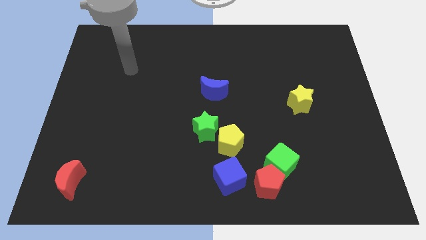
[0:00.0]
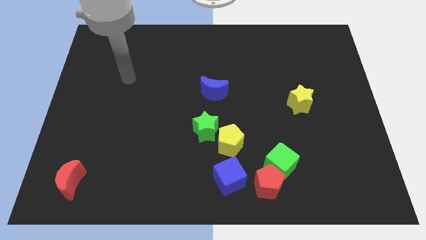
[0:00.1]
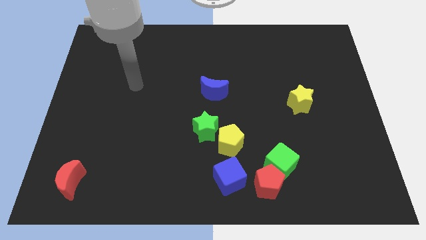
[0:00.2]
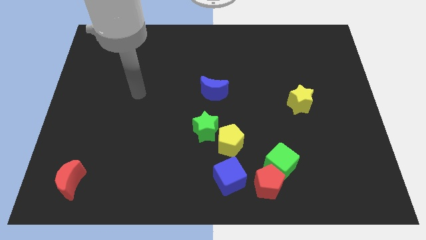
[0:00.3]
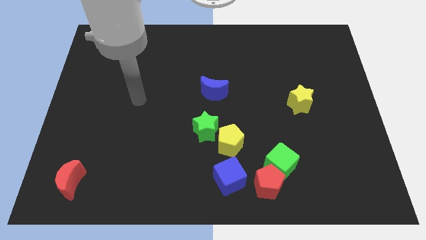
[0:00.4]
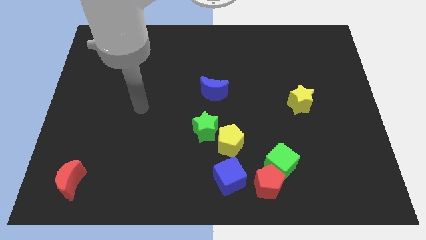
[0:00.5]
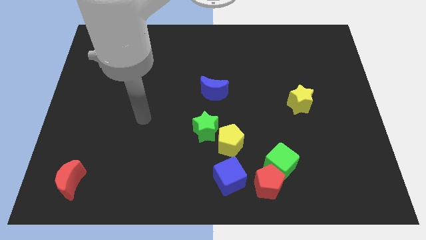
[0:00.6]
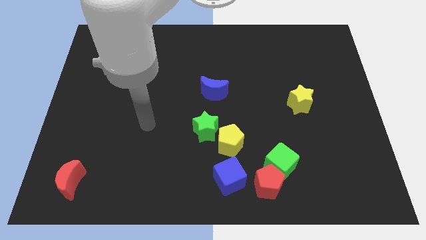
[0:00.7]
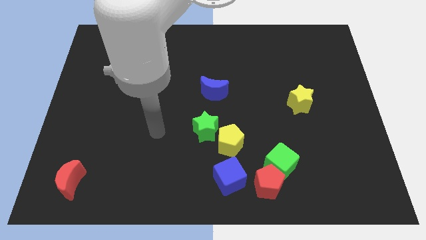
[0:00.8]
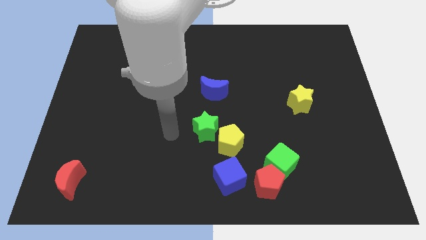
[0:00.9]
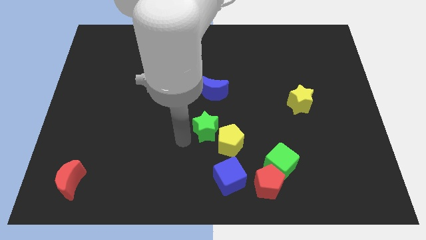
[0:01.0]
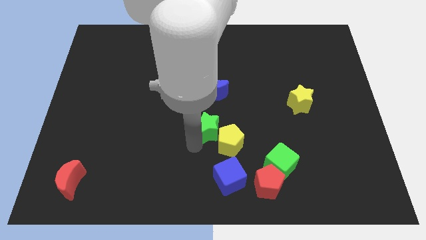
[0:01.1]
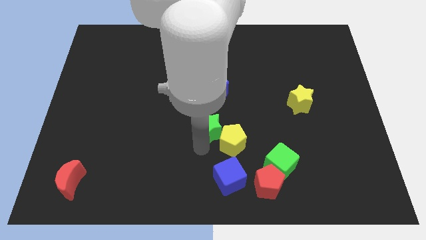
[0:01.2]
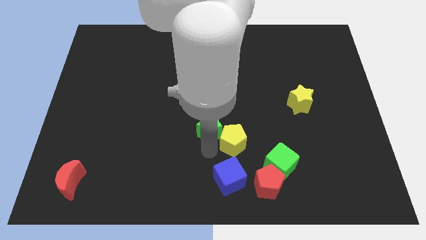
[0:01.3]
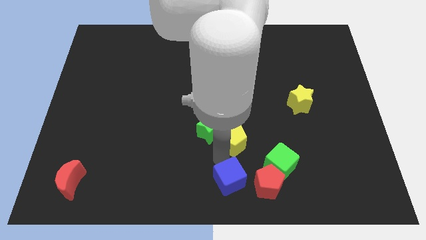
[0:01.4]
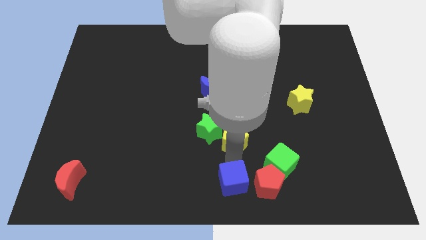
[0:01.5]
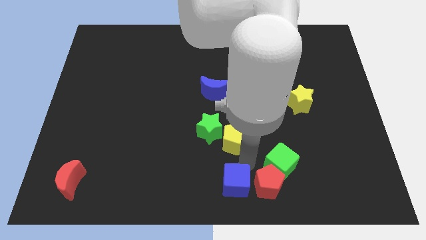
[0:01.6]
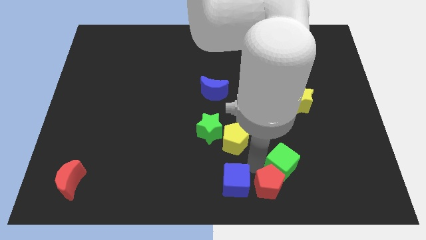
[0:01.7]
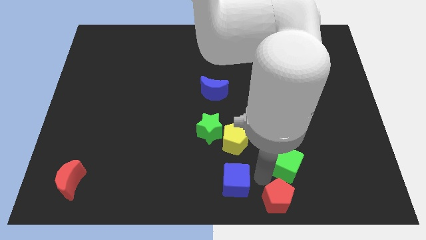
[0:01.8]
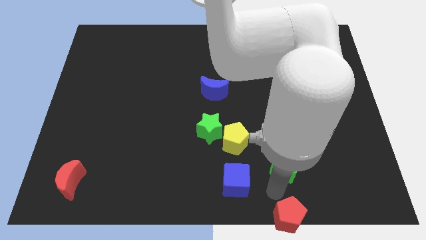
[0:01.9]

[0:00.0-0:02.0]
move the green cube away from the red pentagon

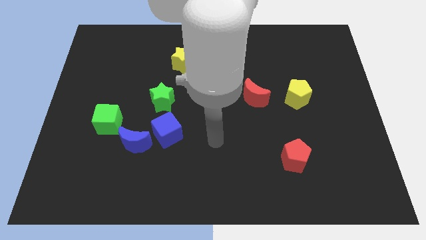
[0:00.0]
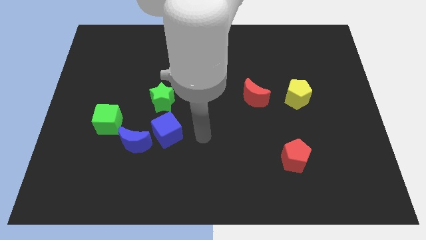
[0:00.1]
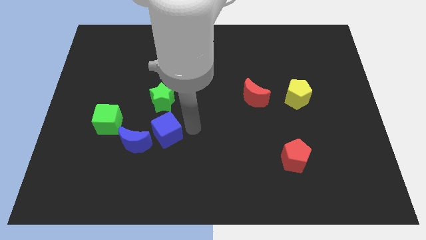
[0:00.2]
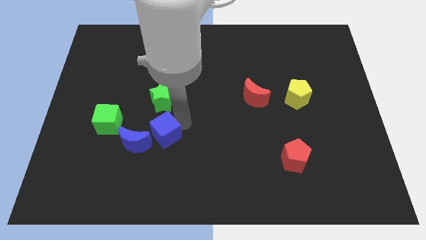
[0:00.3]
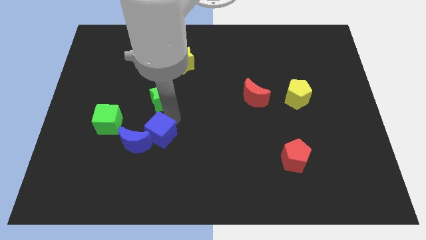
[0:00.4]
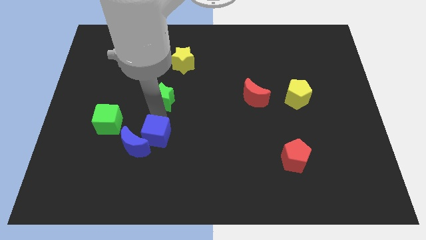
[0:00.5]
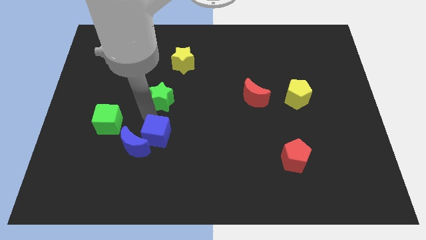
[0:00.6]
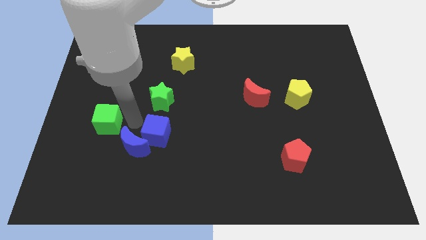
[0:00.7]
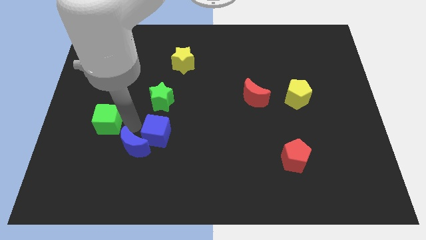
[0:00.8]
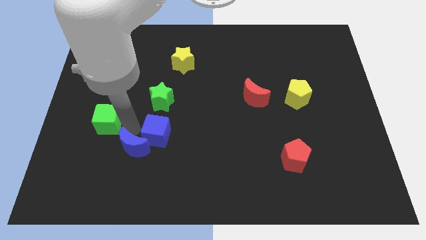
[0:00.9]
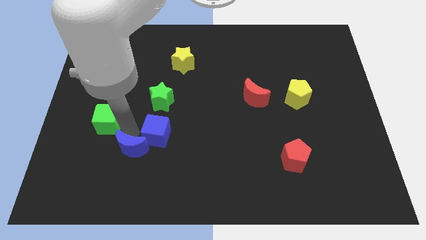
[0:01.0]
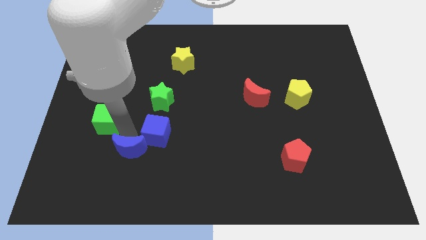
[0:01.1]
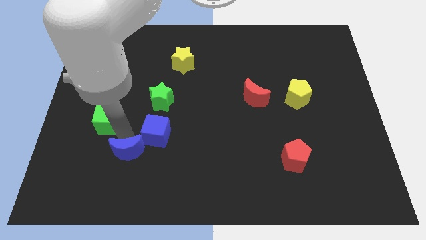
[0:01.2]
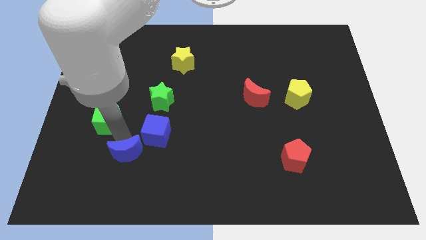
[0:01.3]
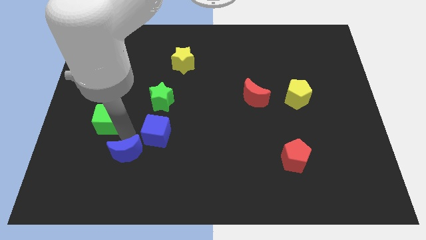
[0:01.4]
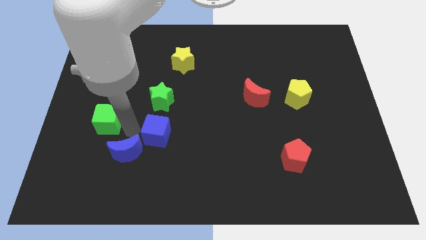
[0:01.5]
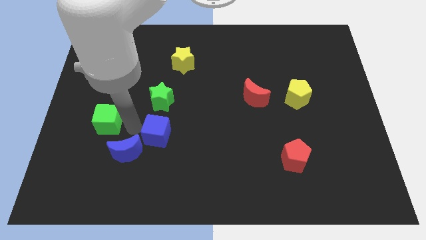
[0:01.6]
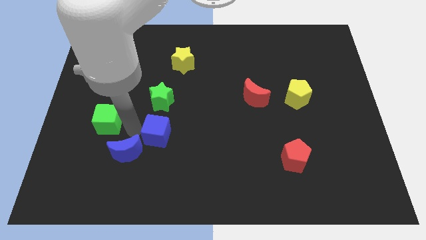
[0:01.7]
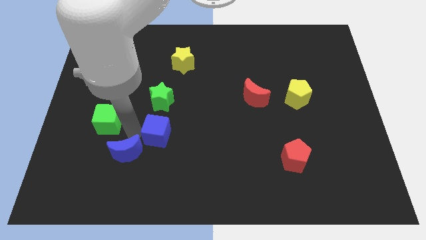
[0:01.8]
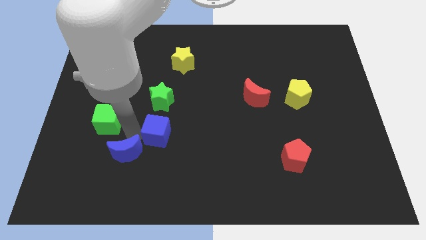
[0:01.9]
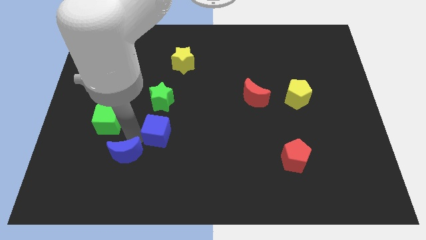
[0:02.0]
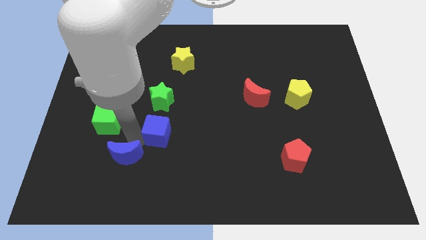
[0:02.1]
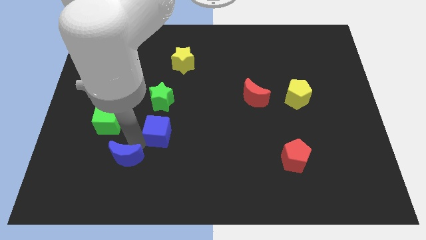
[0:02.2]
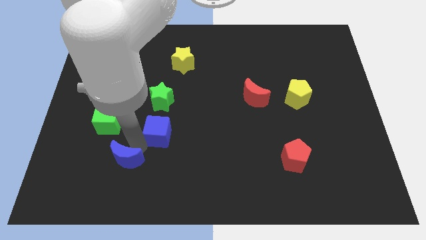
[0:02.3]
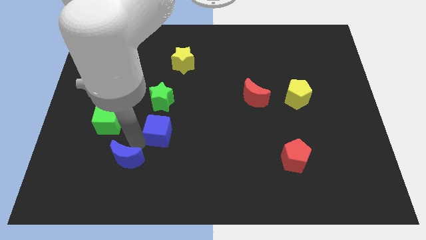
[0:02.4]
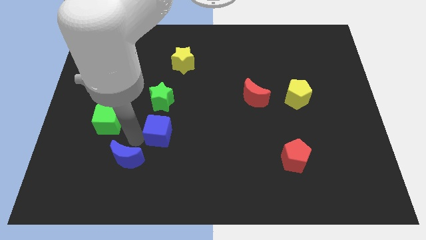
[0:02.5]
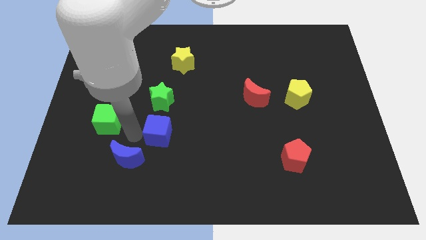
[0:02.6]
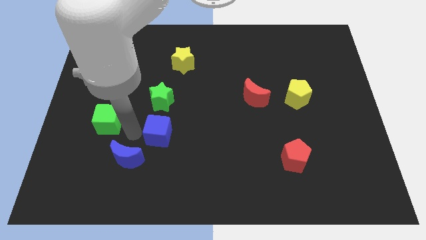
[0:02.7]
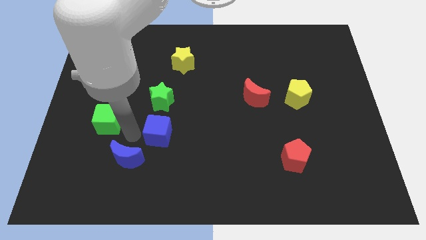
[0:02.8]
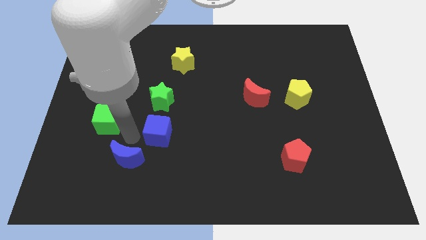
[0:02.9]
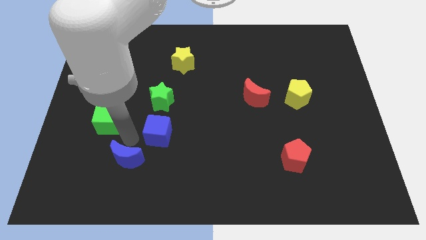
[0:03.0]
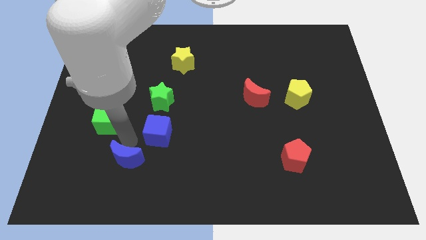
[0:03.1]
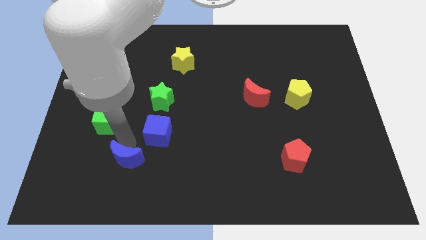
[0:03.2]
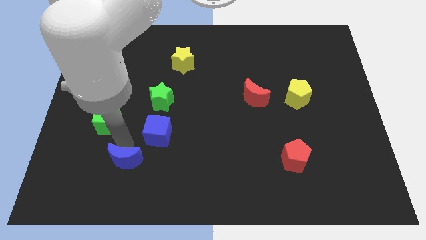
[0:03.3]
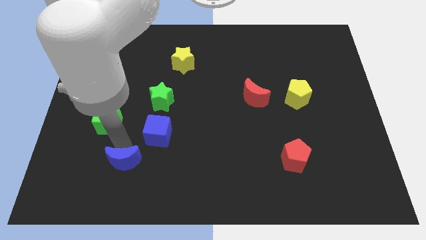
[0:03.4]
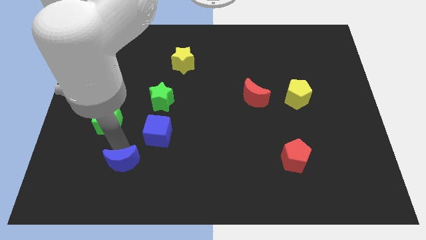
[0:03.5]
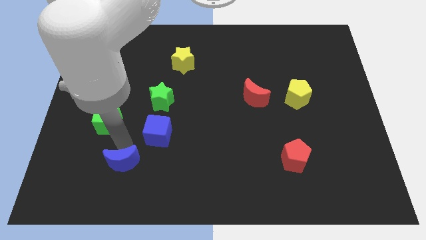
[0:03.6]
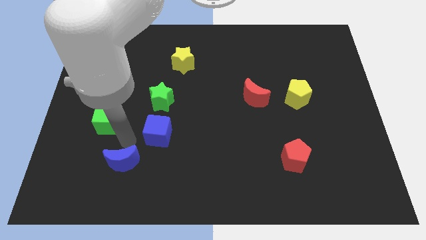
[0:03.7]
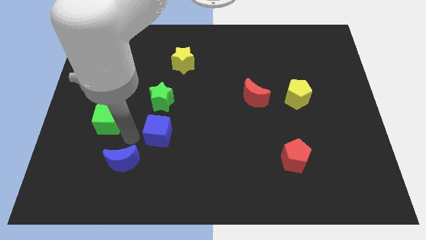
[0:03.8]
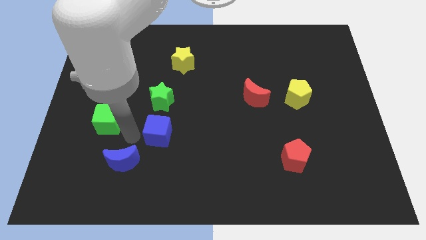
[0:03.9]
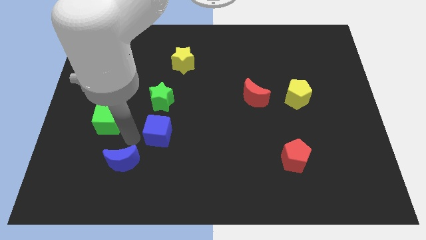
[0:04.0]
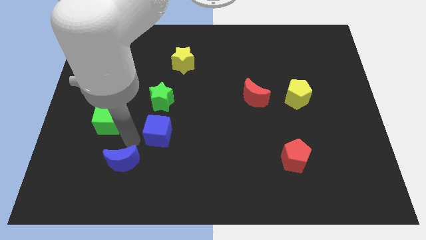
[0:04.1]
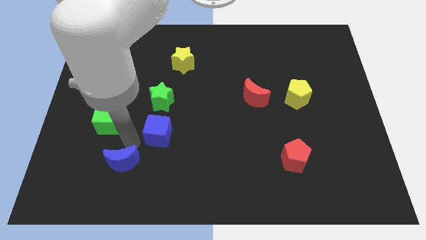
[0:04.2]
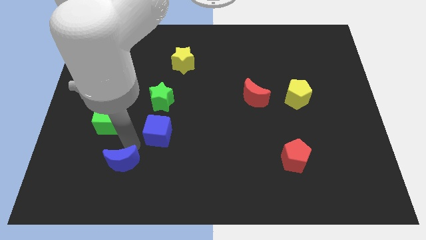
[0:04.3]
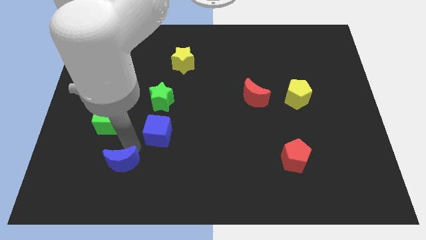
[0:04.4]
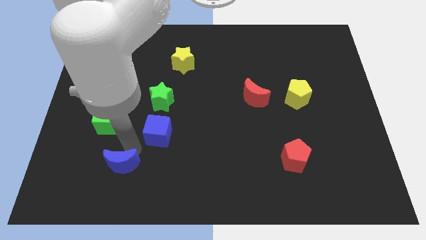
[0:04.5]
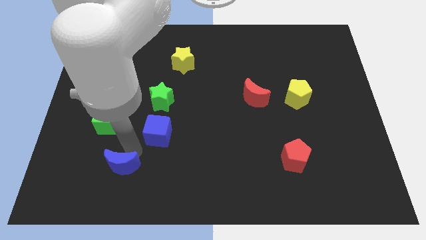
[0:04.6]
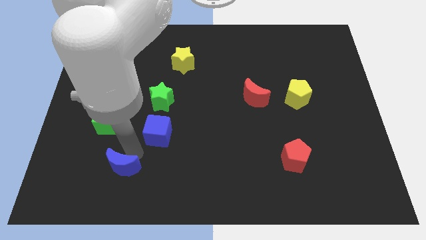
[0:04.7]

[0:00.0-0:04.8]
pull the blue moon apart from the blue cube and green cube

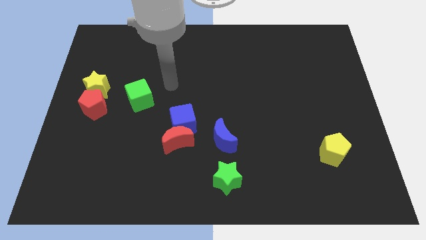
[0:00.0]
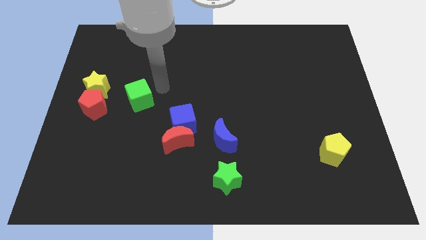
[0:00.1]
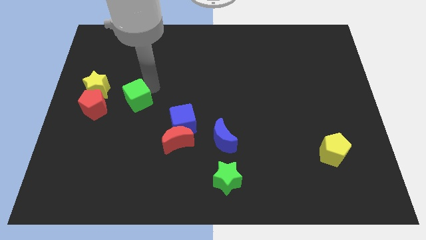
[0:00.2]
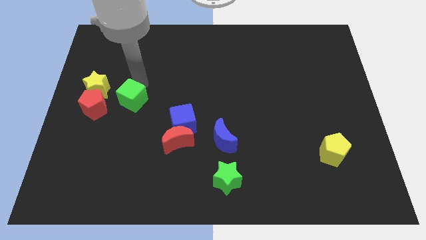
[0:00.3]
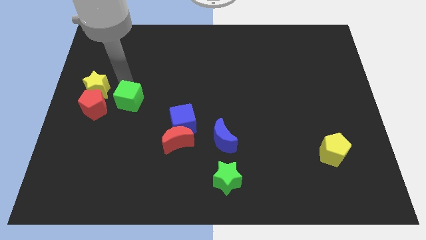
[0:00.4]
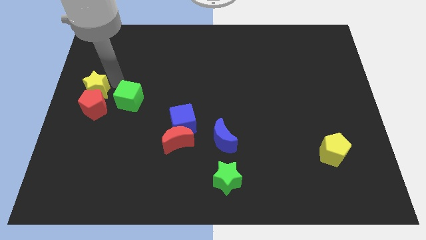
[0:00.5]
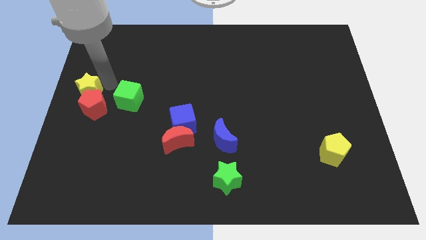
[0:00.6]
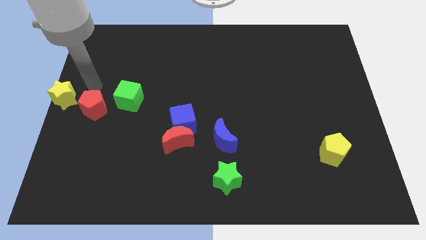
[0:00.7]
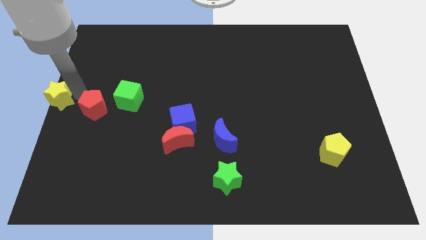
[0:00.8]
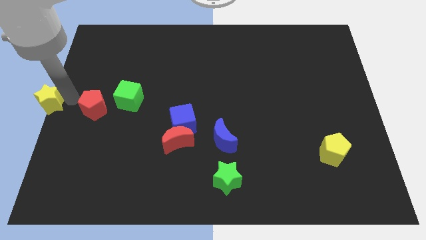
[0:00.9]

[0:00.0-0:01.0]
move the red pentagon away from the yellow star

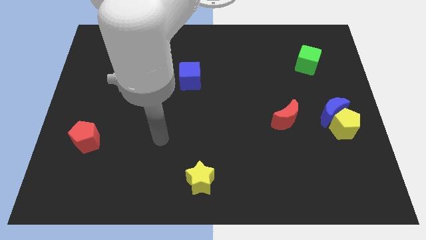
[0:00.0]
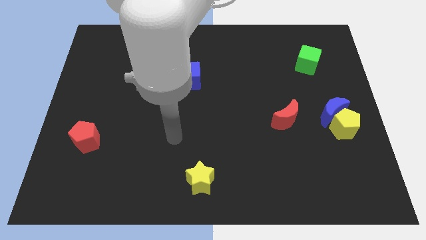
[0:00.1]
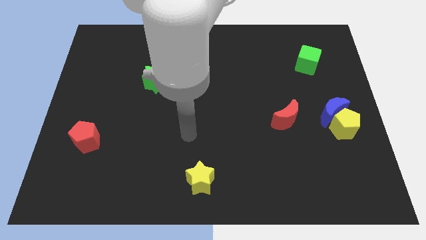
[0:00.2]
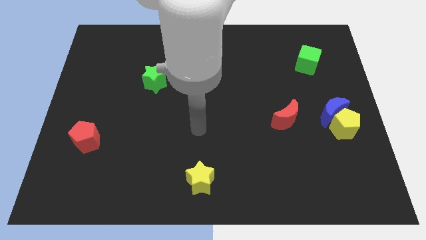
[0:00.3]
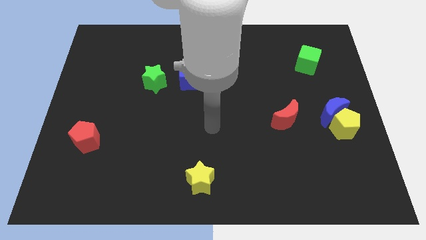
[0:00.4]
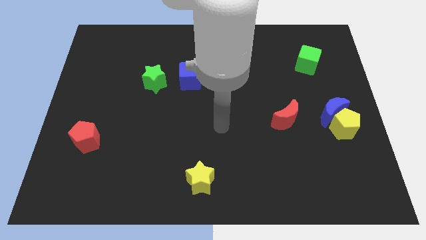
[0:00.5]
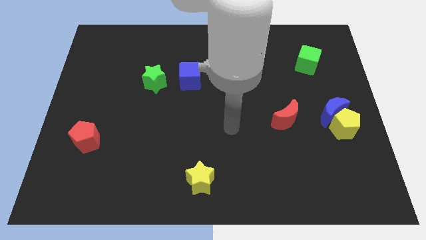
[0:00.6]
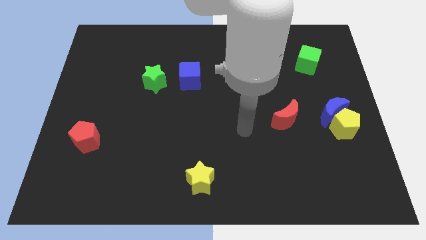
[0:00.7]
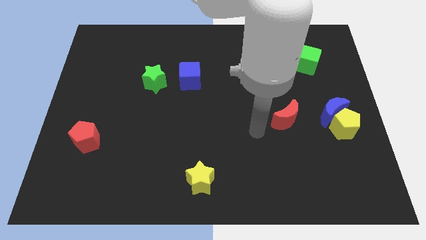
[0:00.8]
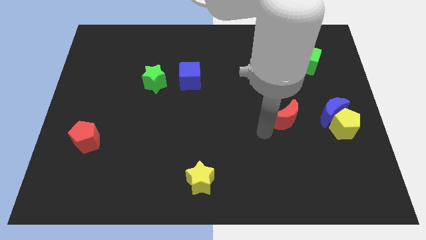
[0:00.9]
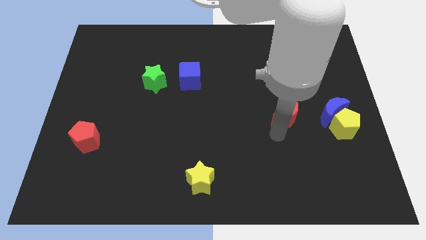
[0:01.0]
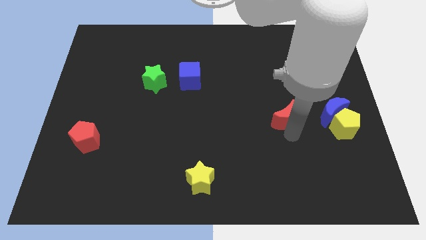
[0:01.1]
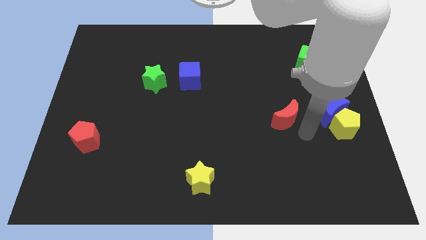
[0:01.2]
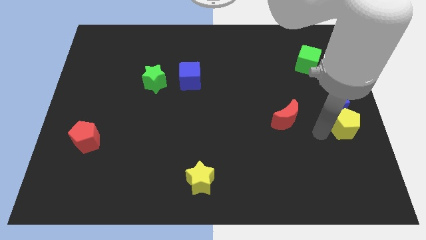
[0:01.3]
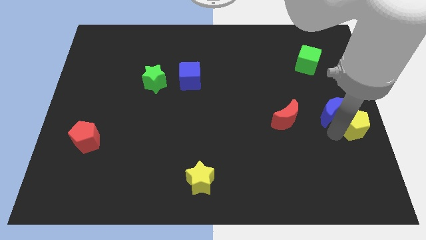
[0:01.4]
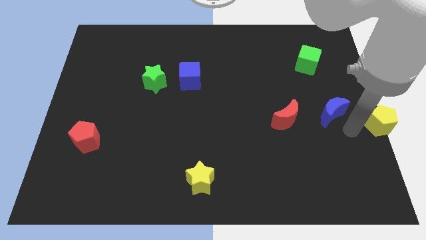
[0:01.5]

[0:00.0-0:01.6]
separate the blue moon from the yellow pentagon
